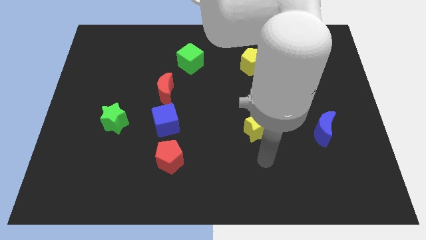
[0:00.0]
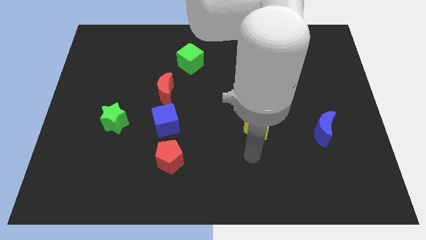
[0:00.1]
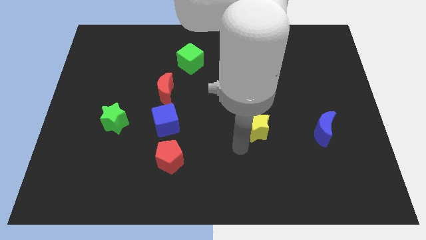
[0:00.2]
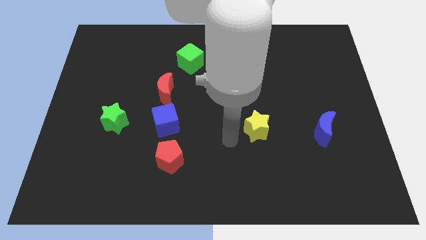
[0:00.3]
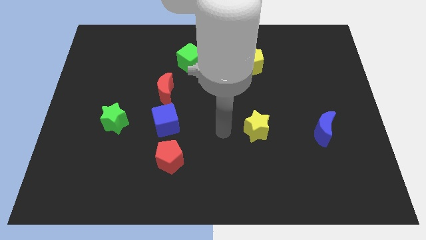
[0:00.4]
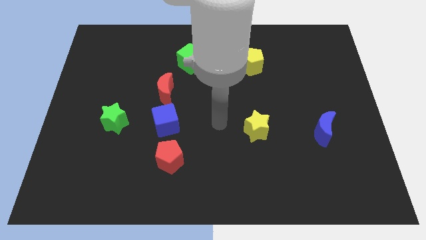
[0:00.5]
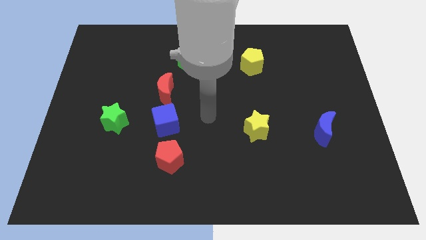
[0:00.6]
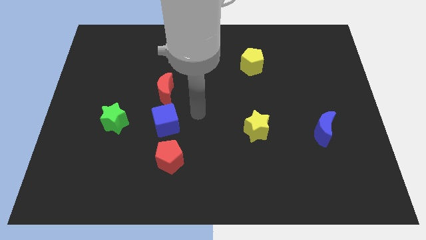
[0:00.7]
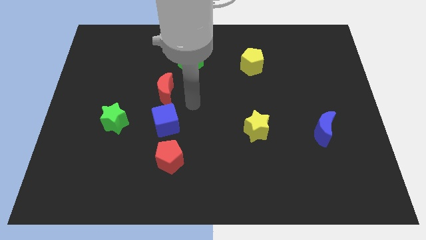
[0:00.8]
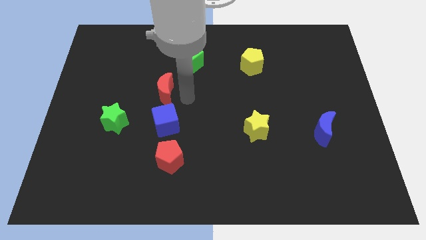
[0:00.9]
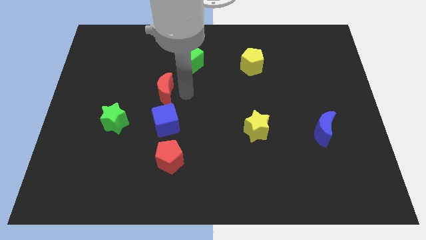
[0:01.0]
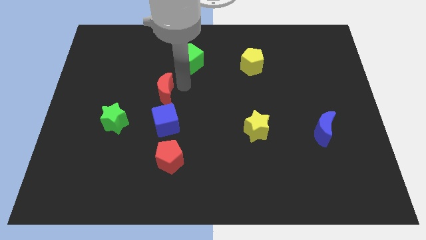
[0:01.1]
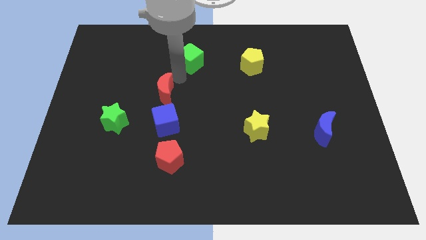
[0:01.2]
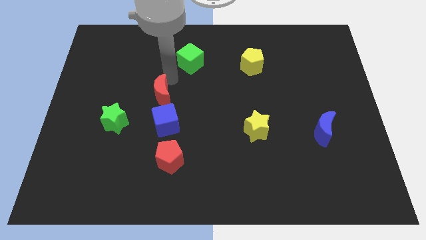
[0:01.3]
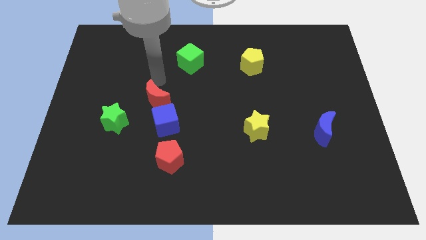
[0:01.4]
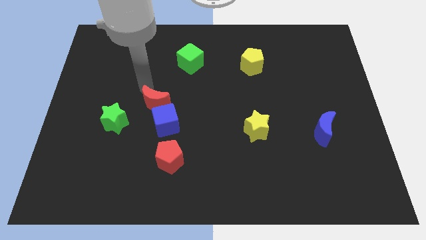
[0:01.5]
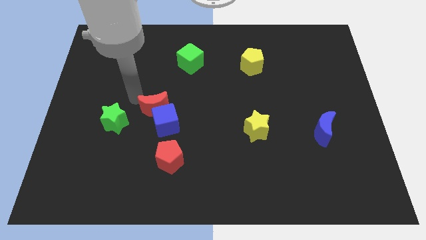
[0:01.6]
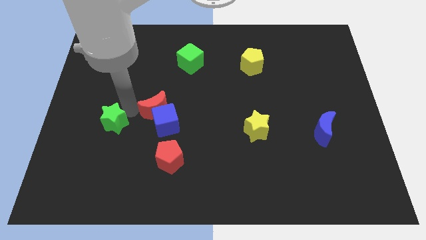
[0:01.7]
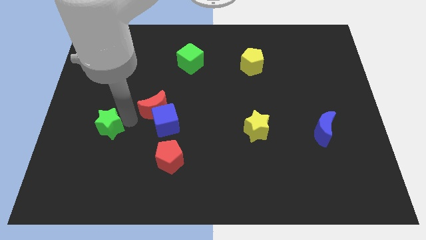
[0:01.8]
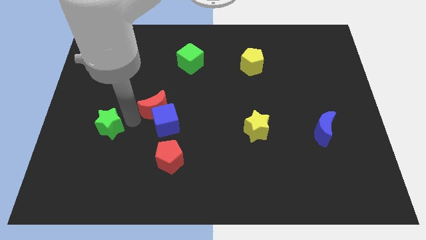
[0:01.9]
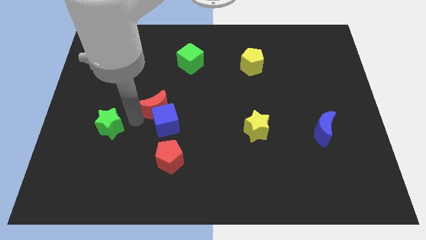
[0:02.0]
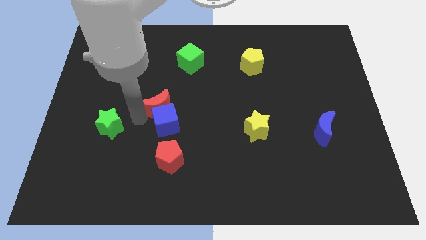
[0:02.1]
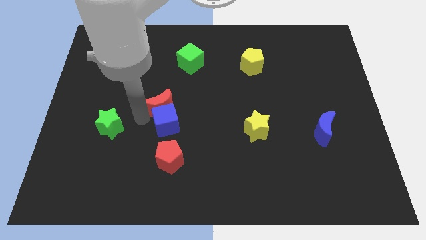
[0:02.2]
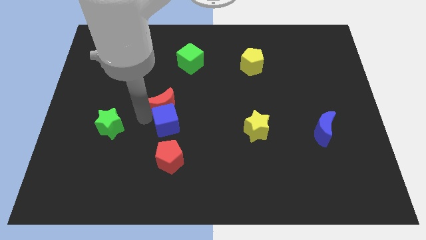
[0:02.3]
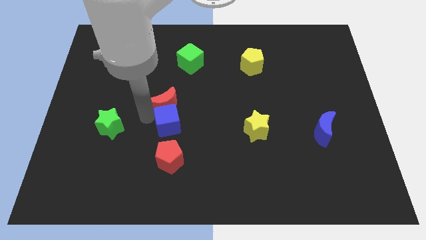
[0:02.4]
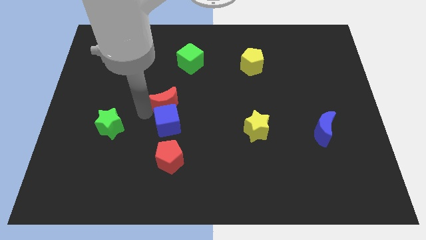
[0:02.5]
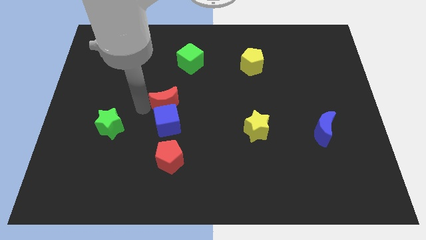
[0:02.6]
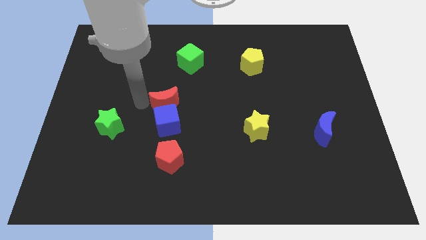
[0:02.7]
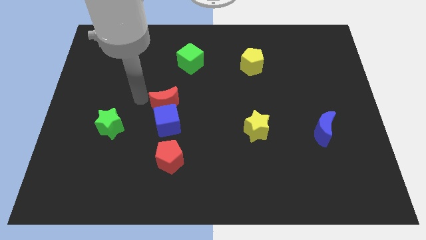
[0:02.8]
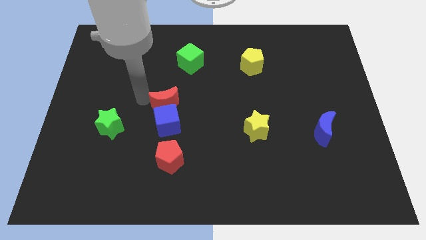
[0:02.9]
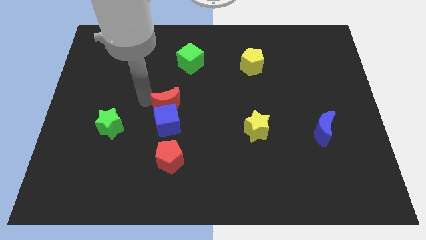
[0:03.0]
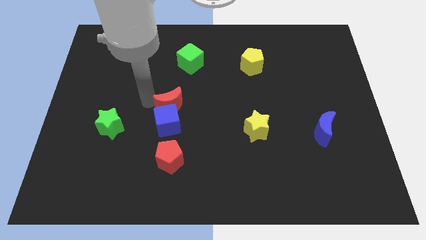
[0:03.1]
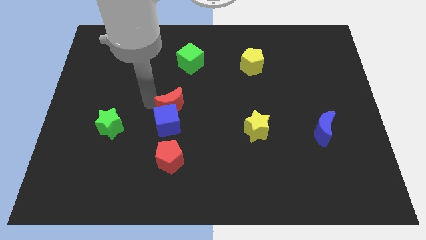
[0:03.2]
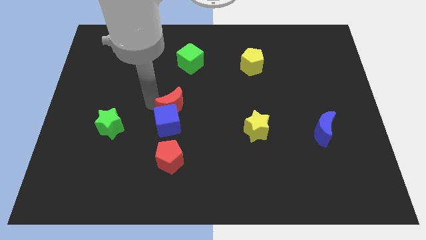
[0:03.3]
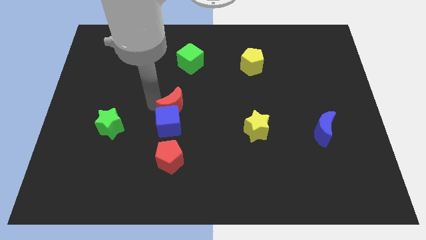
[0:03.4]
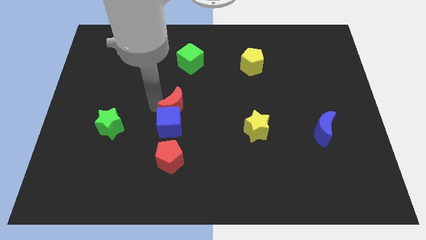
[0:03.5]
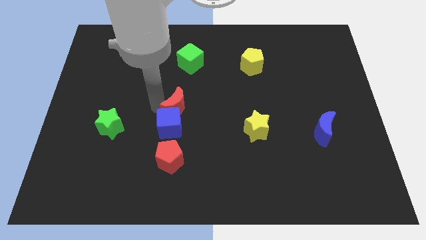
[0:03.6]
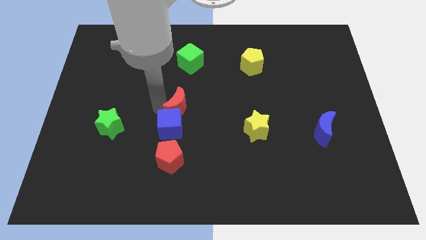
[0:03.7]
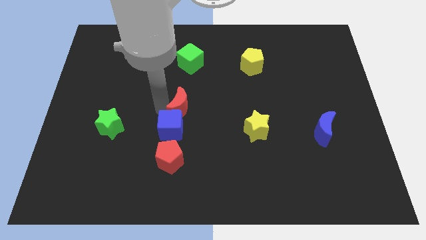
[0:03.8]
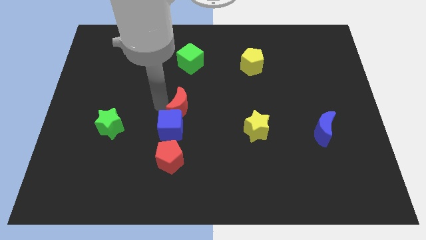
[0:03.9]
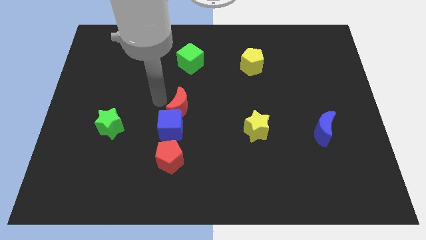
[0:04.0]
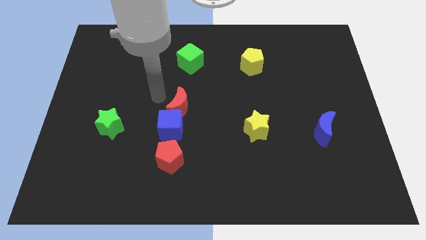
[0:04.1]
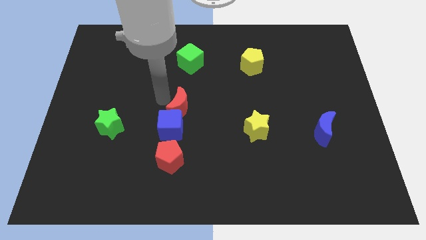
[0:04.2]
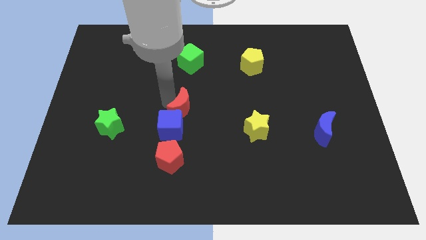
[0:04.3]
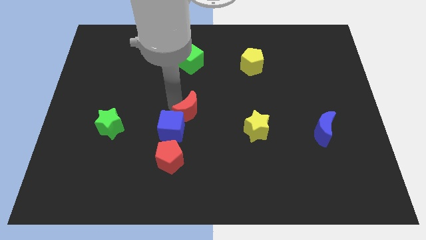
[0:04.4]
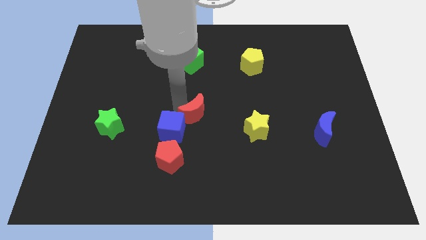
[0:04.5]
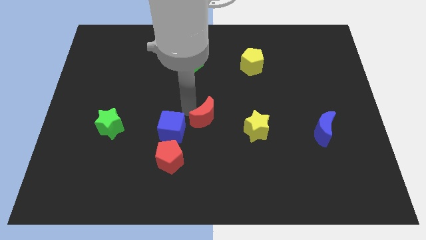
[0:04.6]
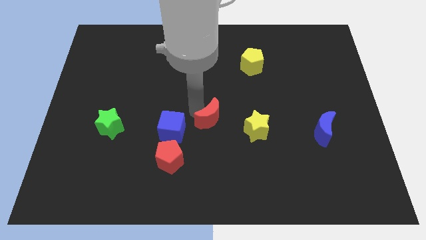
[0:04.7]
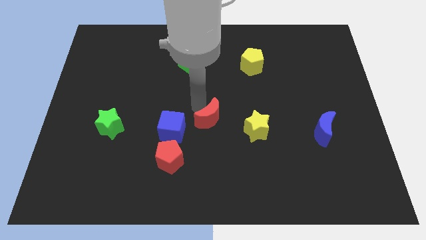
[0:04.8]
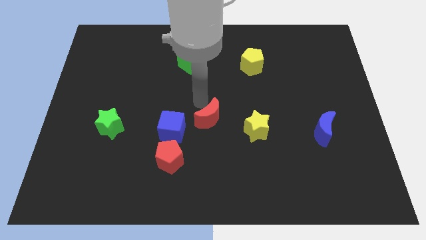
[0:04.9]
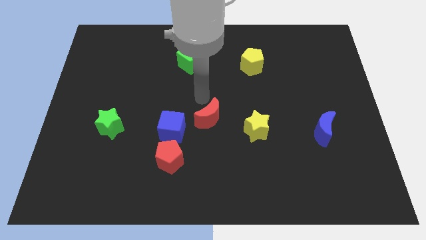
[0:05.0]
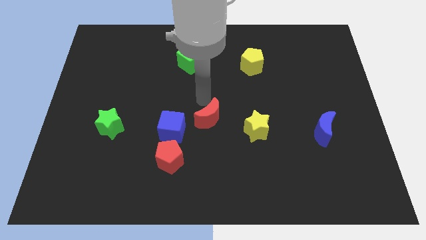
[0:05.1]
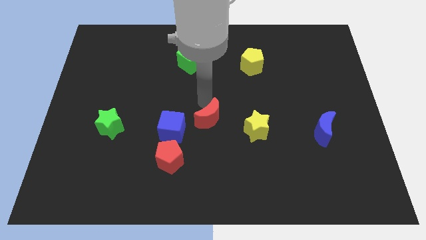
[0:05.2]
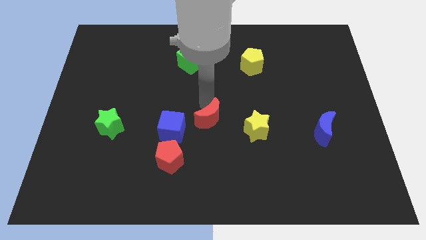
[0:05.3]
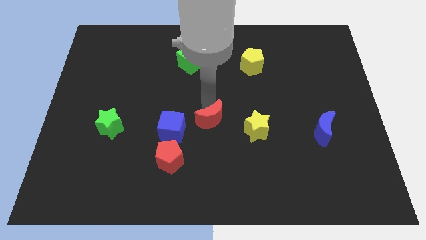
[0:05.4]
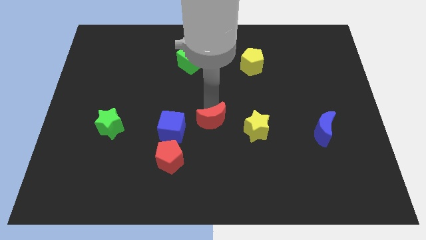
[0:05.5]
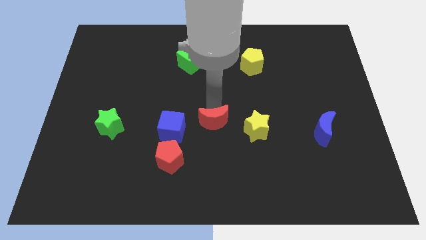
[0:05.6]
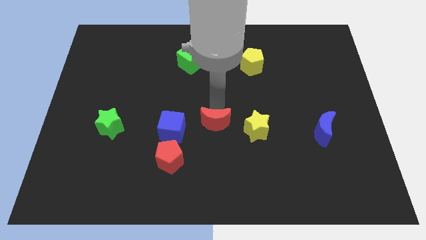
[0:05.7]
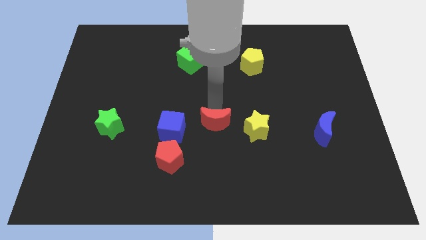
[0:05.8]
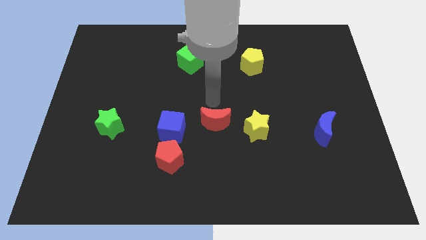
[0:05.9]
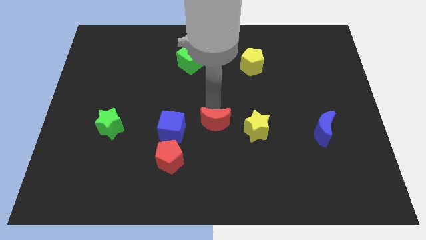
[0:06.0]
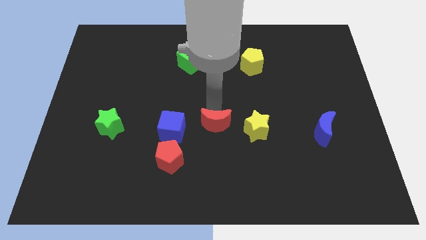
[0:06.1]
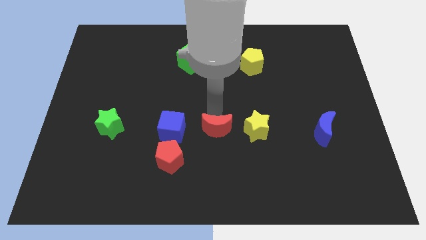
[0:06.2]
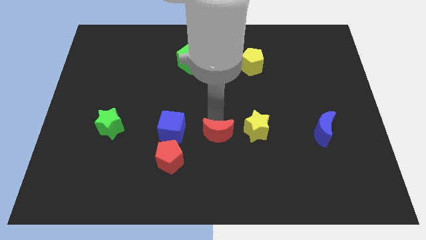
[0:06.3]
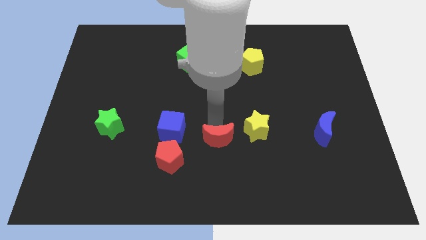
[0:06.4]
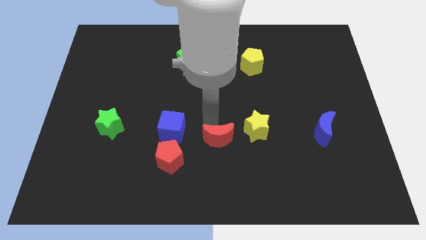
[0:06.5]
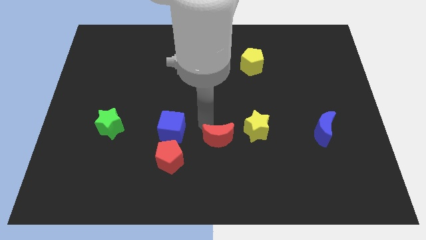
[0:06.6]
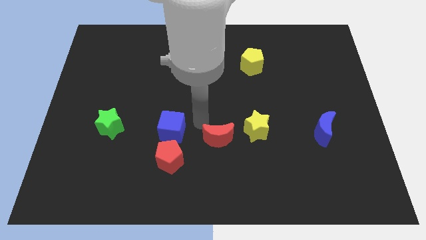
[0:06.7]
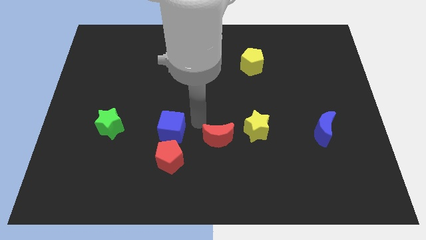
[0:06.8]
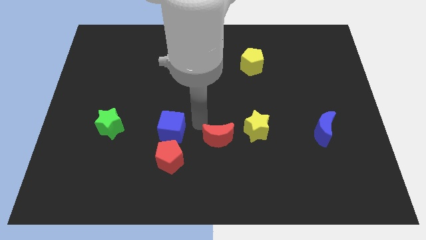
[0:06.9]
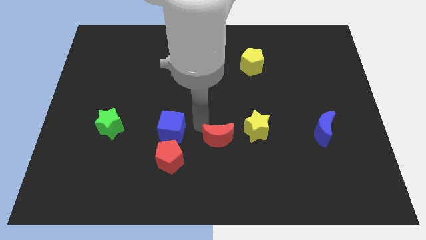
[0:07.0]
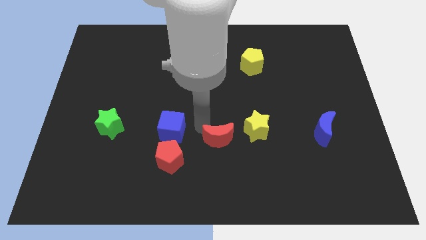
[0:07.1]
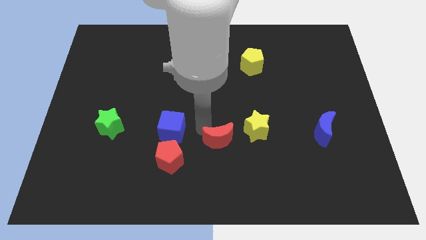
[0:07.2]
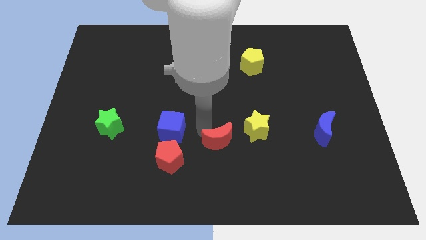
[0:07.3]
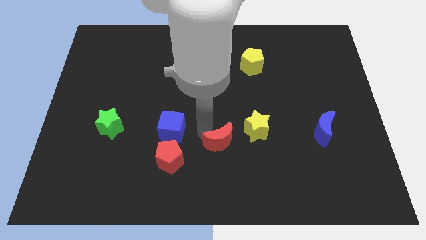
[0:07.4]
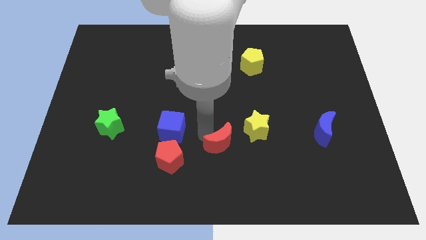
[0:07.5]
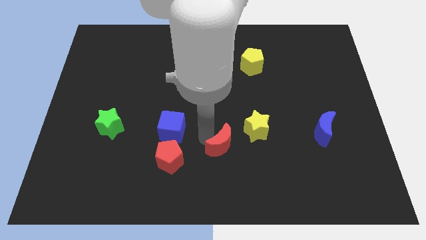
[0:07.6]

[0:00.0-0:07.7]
move the red moon diagonally down and to the right

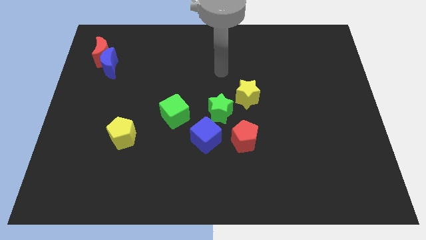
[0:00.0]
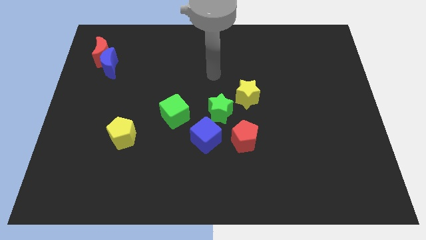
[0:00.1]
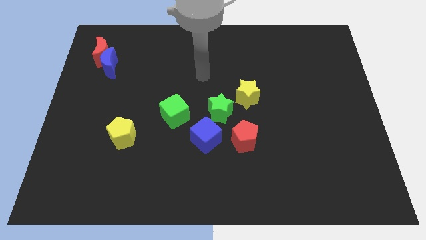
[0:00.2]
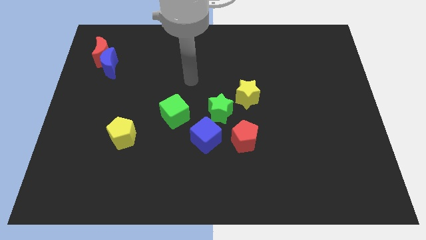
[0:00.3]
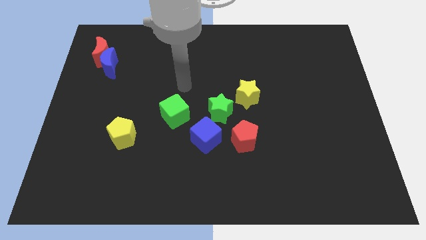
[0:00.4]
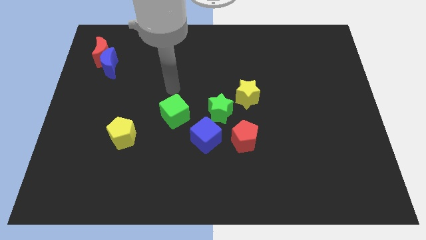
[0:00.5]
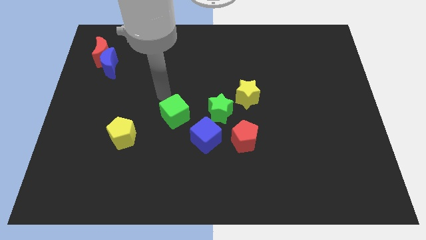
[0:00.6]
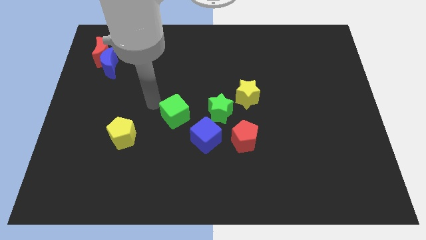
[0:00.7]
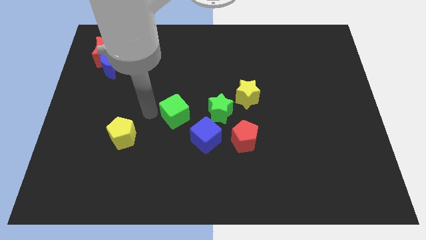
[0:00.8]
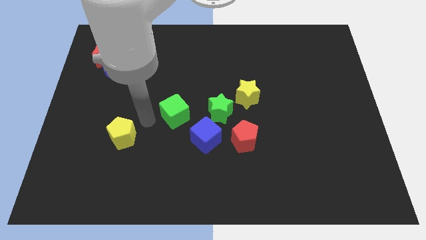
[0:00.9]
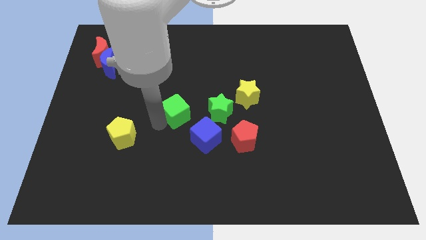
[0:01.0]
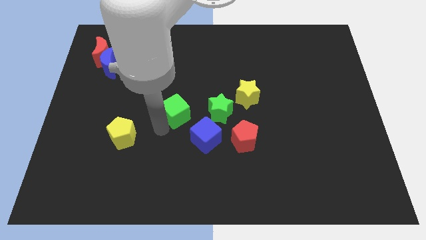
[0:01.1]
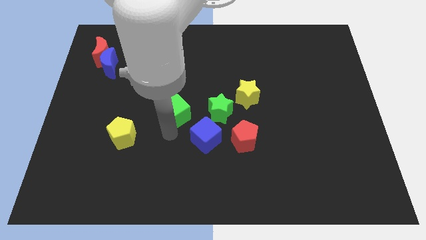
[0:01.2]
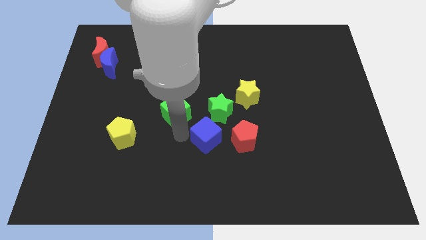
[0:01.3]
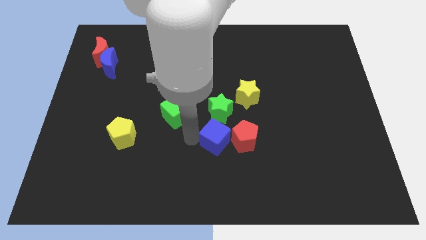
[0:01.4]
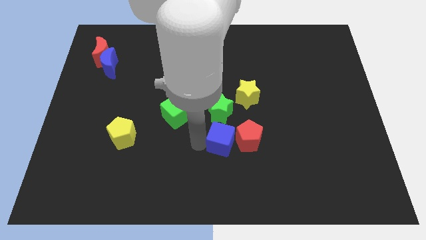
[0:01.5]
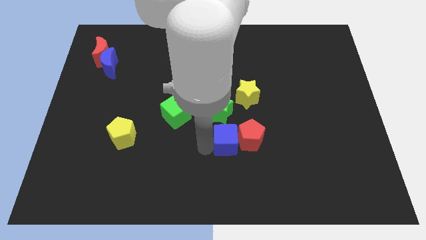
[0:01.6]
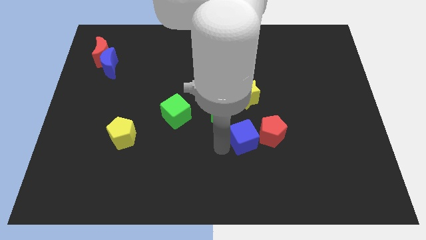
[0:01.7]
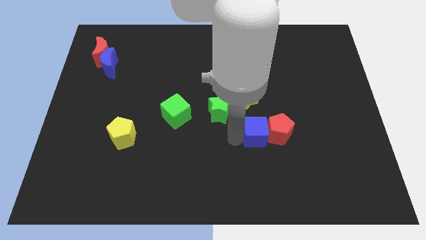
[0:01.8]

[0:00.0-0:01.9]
move the red pentagon a little bit to the right
